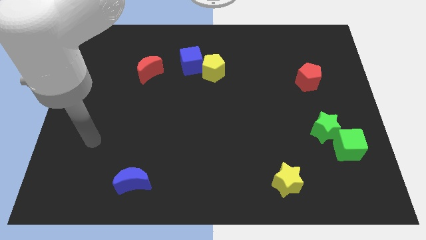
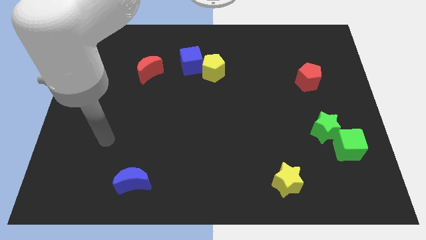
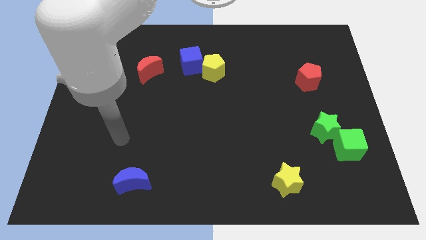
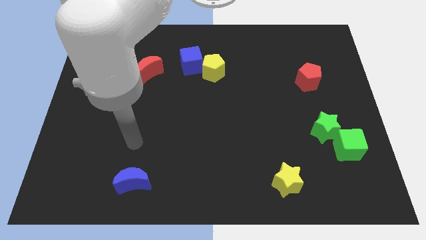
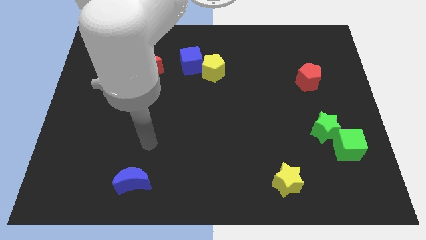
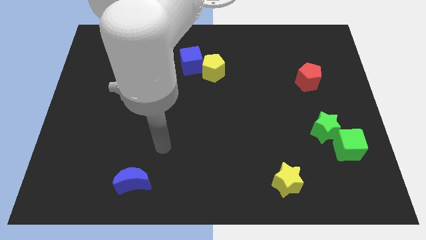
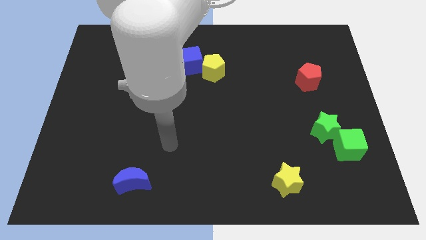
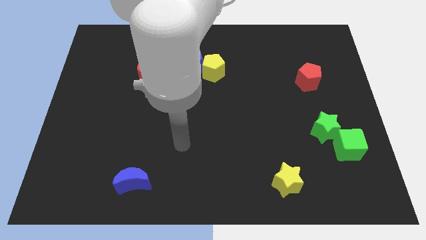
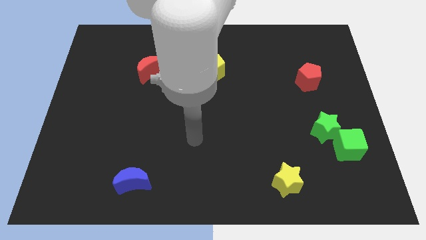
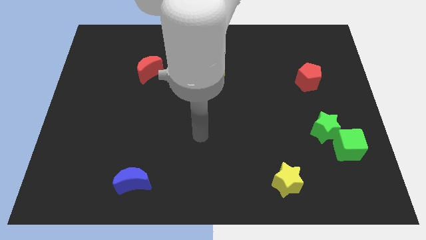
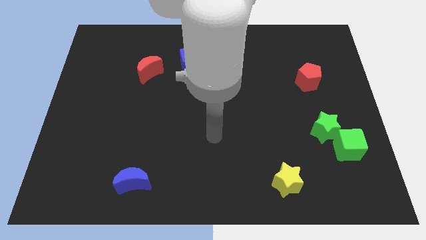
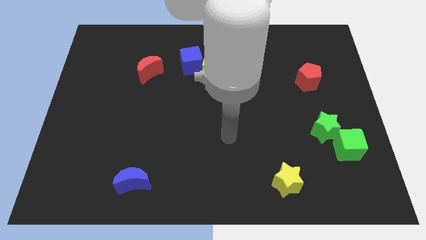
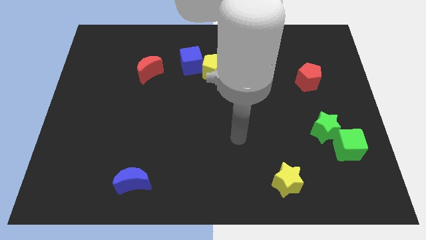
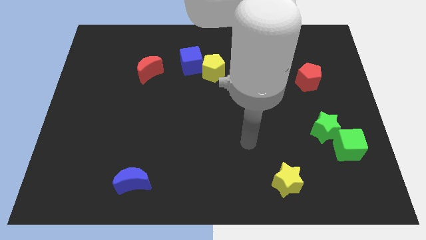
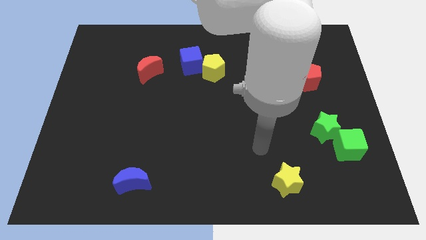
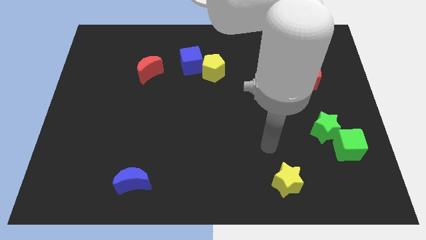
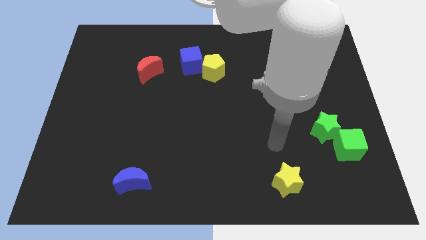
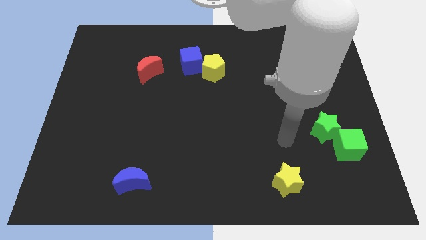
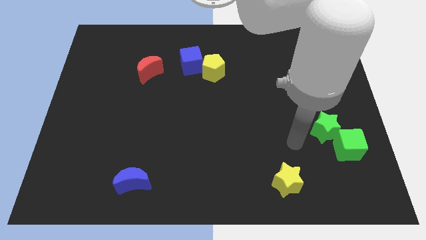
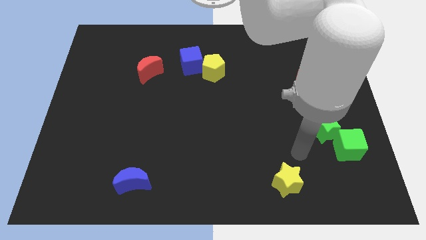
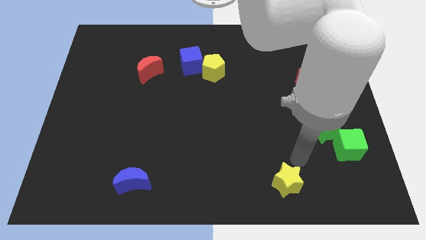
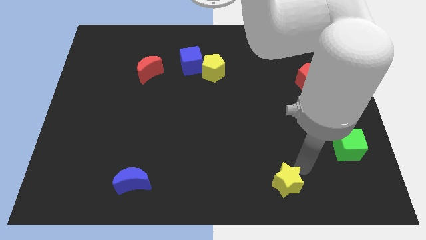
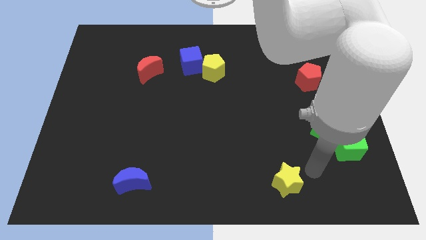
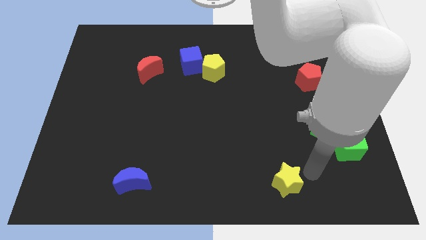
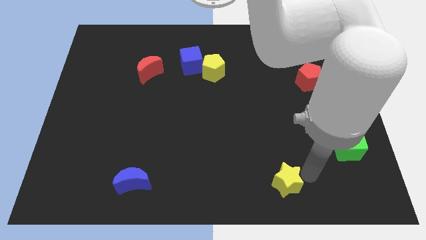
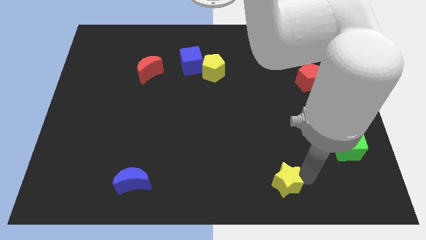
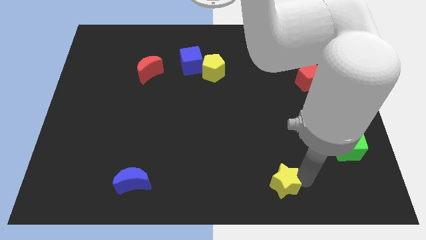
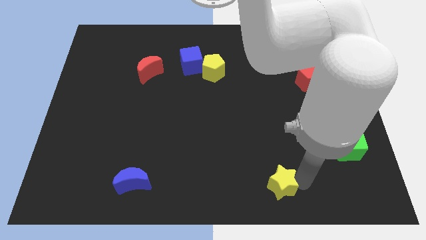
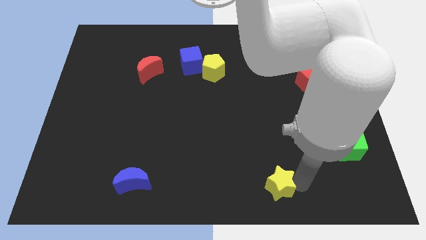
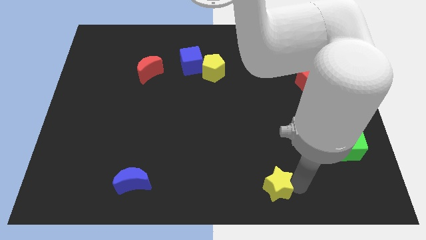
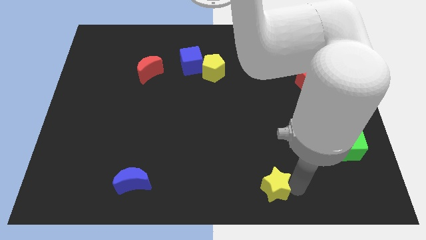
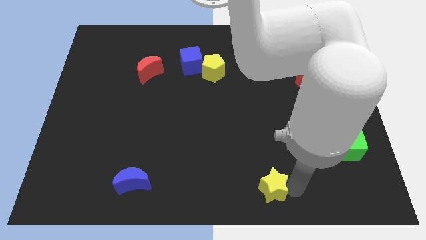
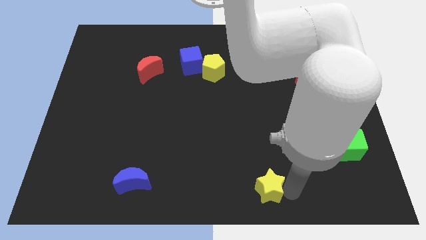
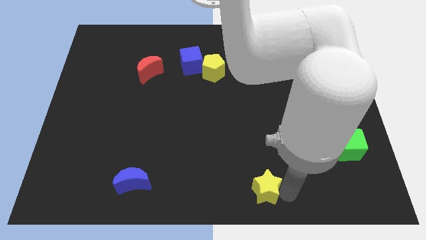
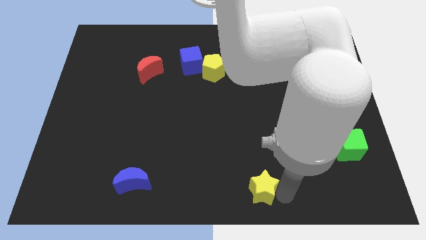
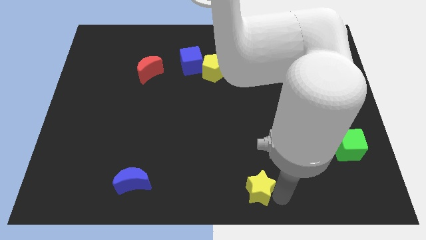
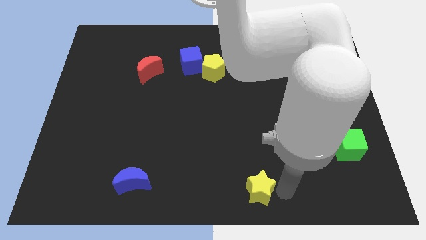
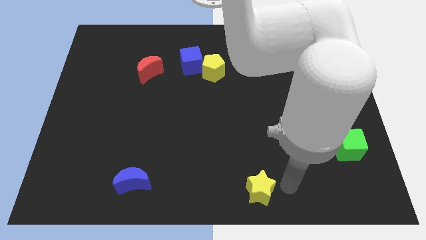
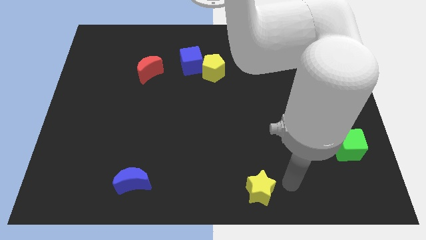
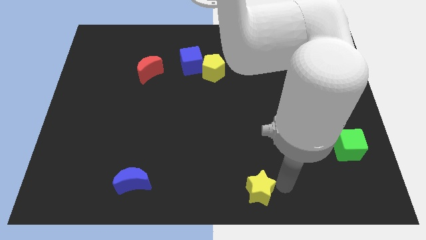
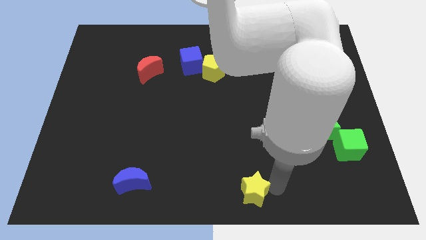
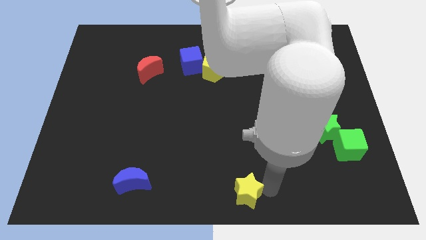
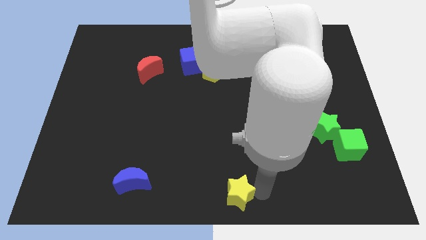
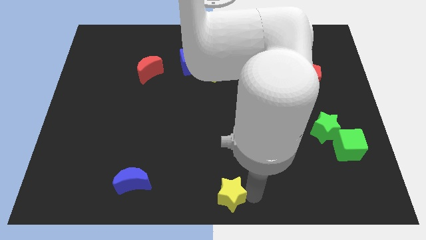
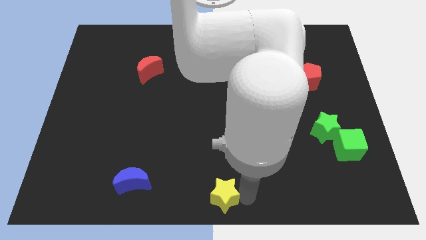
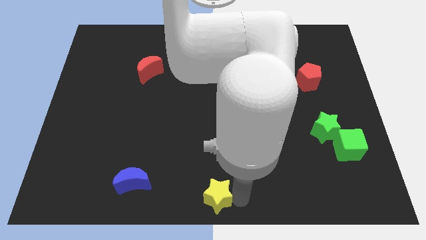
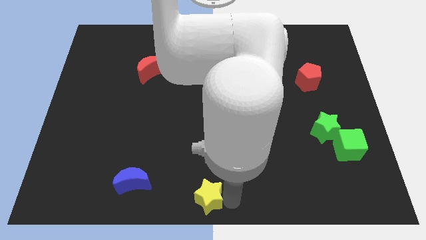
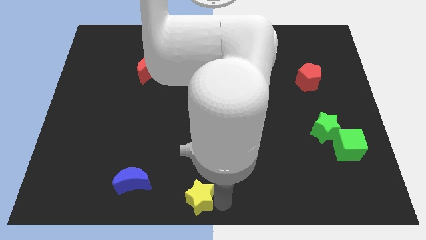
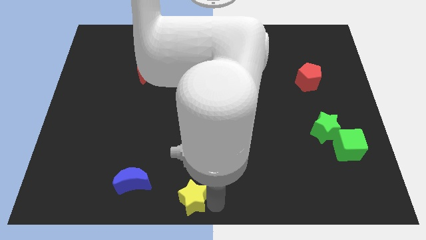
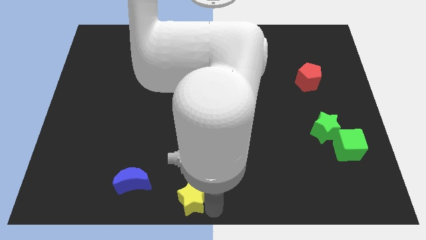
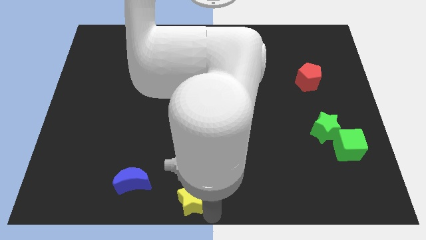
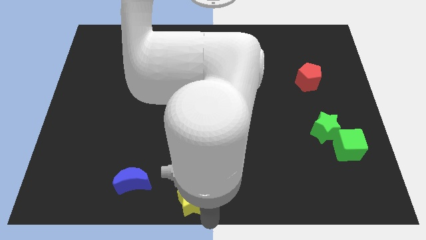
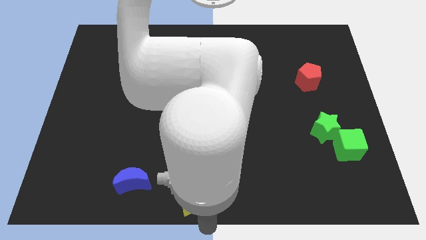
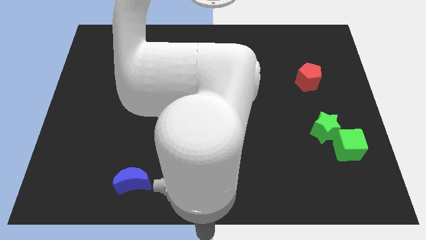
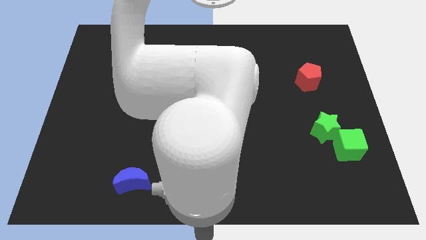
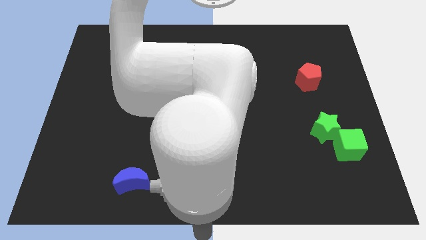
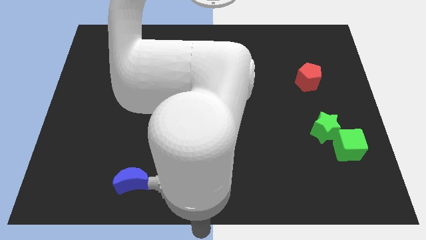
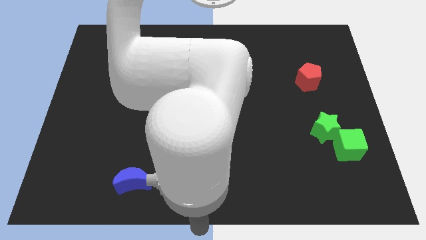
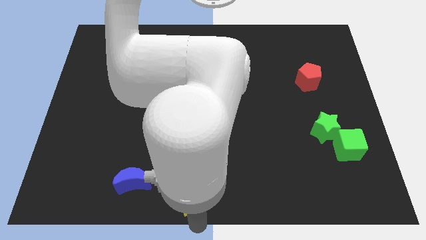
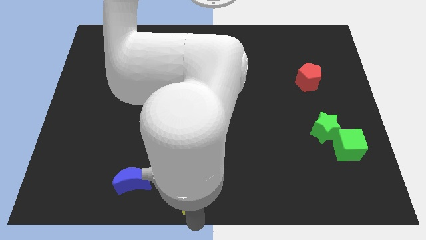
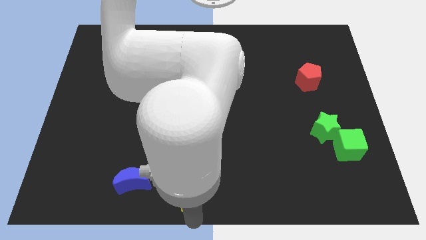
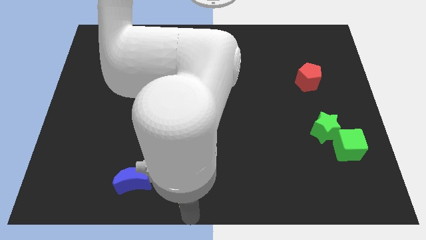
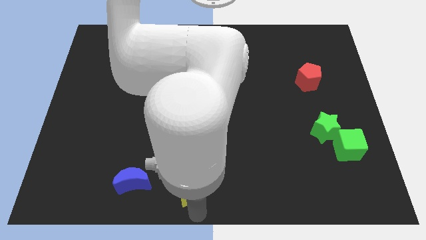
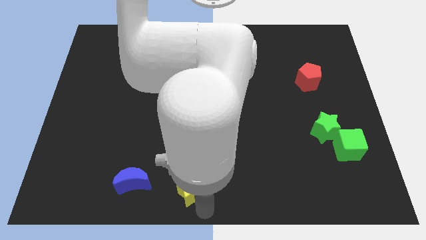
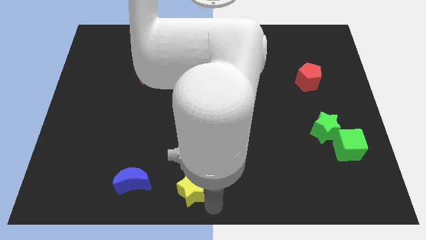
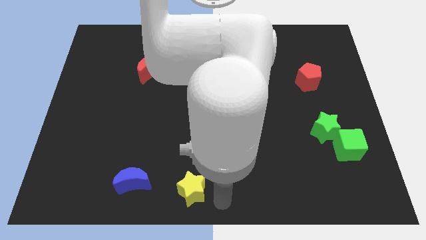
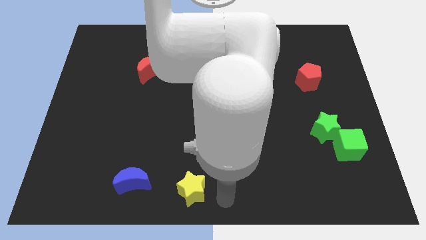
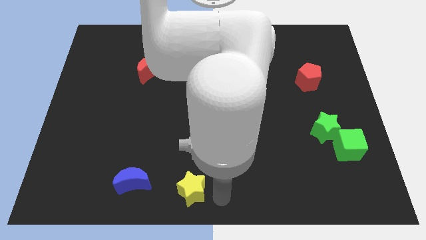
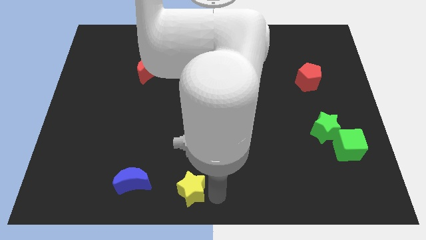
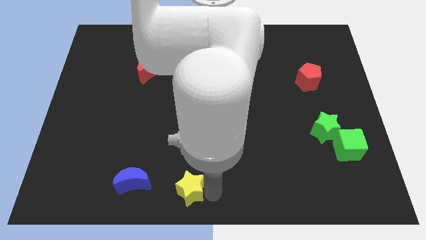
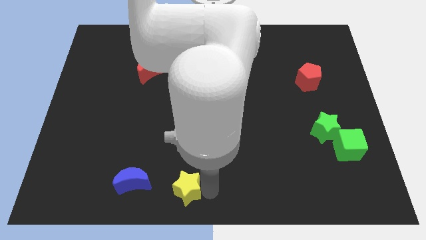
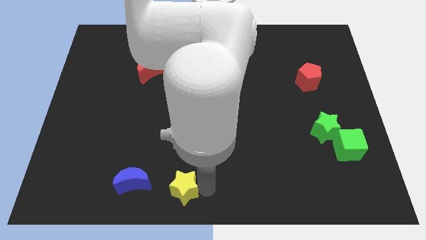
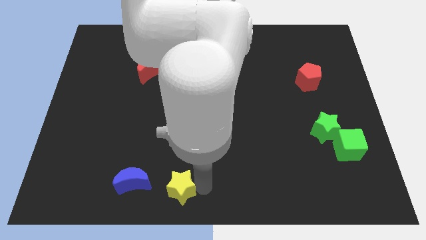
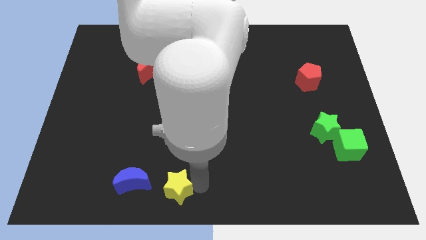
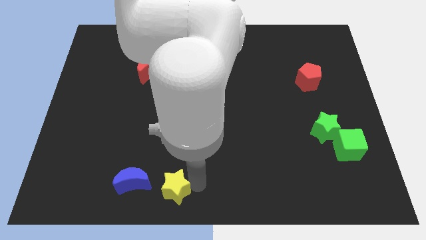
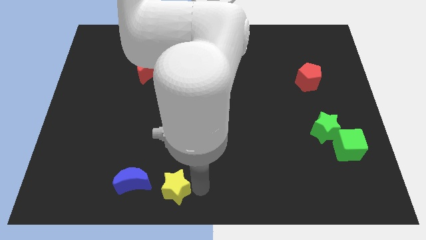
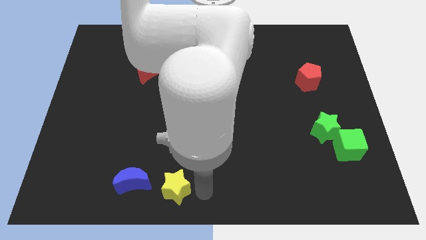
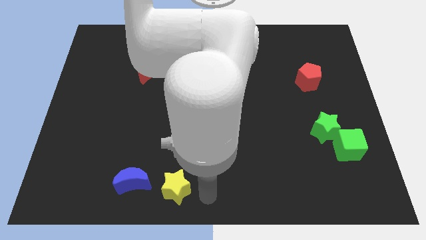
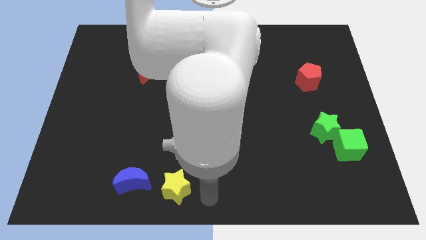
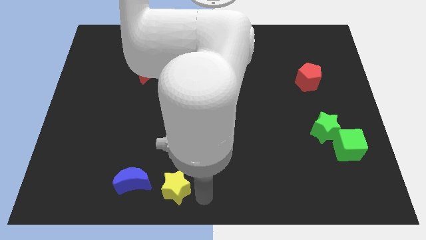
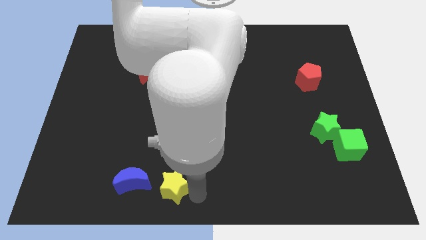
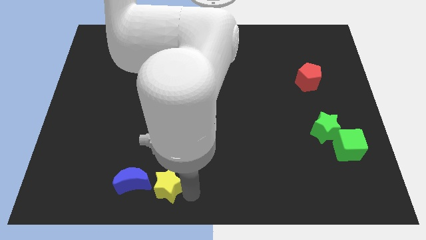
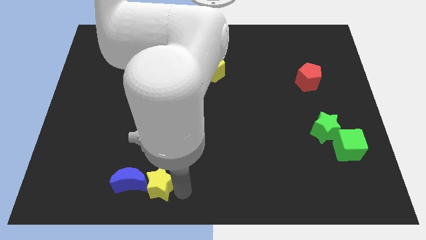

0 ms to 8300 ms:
put the yellow star next to the blue moon
